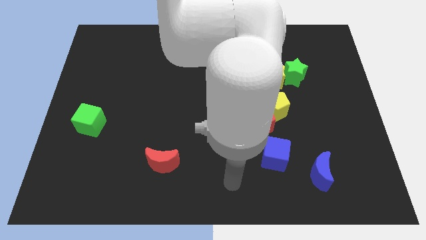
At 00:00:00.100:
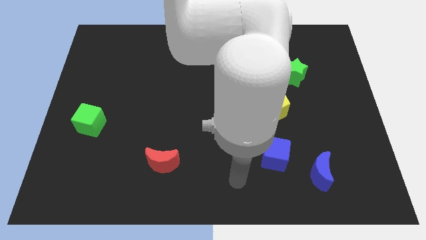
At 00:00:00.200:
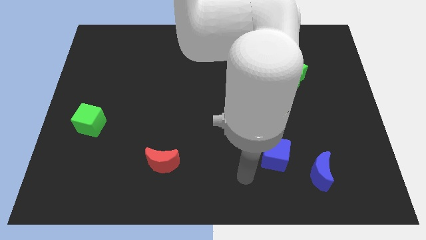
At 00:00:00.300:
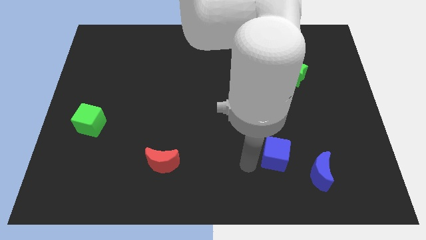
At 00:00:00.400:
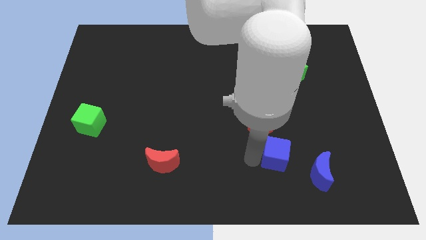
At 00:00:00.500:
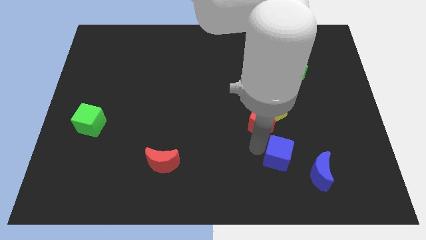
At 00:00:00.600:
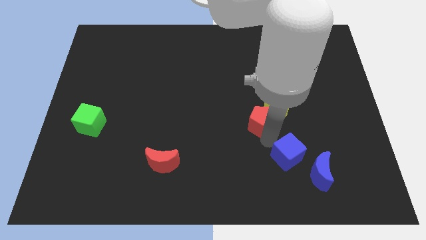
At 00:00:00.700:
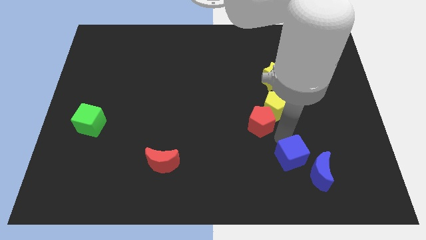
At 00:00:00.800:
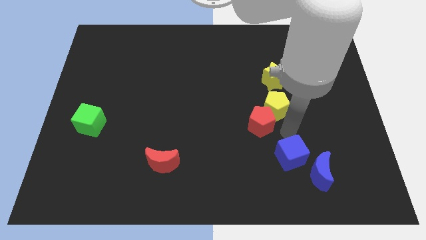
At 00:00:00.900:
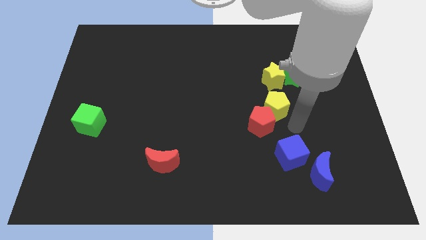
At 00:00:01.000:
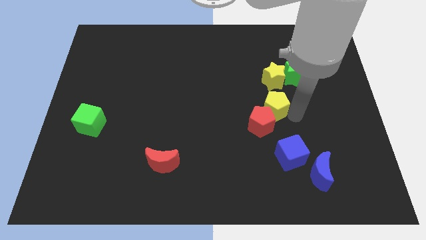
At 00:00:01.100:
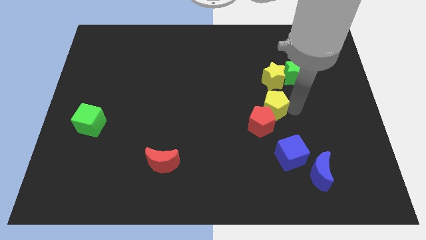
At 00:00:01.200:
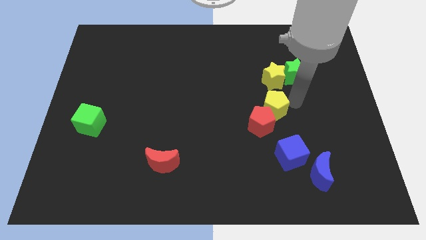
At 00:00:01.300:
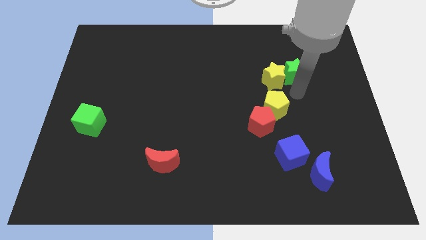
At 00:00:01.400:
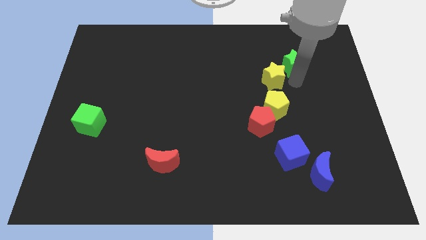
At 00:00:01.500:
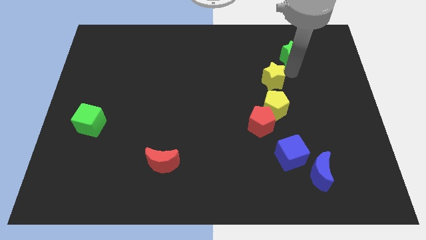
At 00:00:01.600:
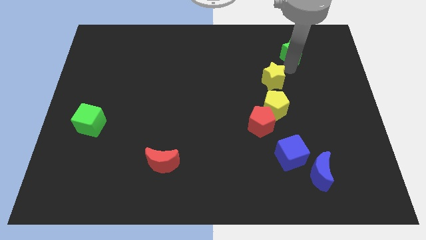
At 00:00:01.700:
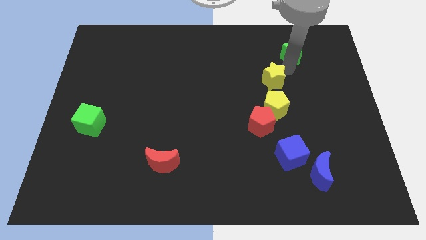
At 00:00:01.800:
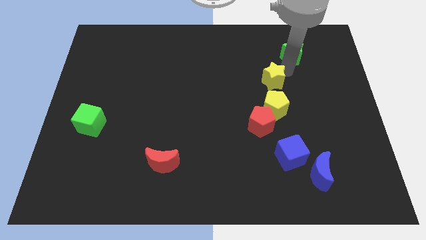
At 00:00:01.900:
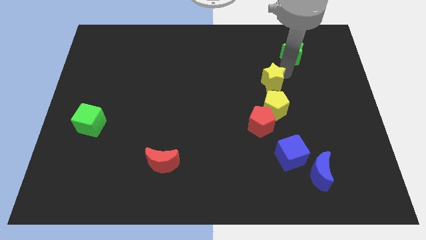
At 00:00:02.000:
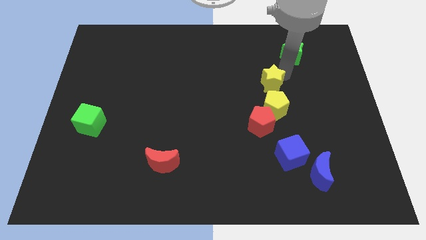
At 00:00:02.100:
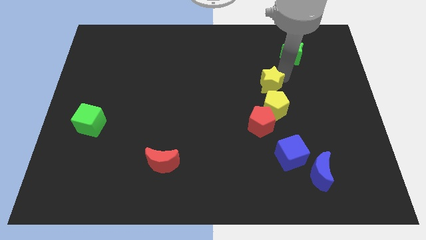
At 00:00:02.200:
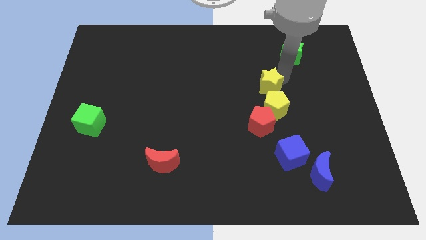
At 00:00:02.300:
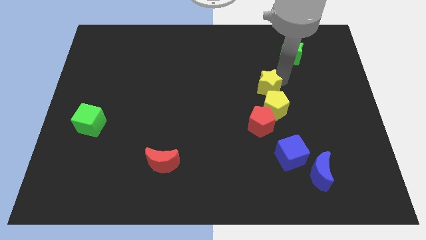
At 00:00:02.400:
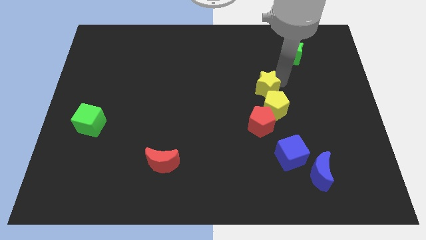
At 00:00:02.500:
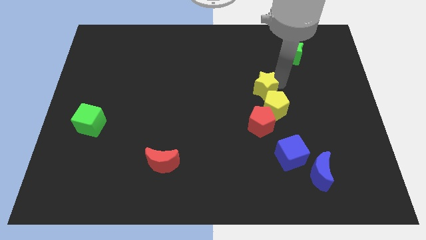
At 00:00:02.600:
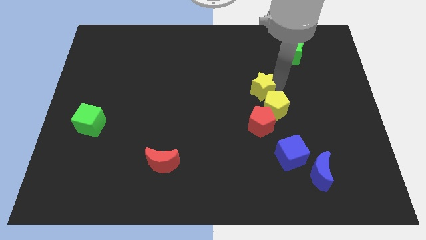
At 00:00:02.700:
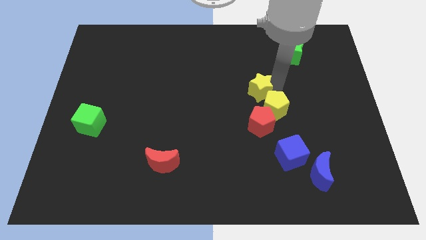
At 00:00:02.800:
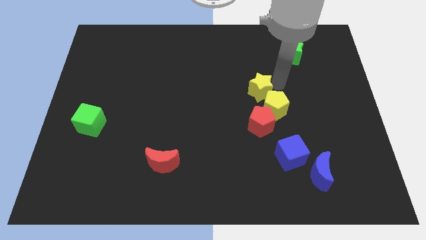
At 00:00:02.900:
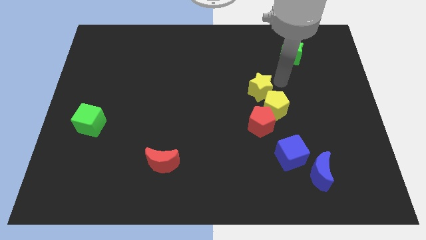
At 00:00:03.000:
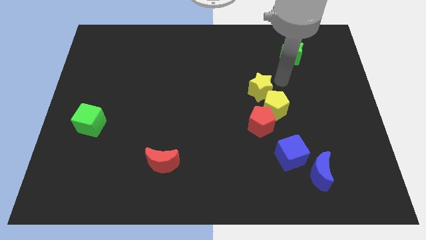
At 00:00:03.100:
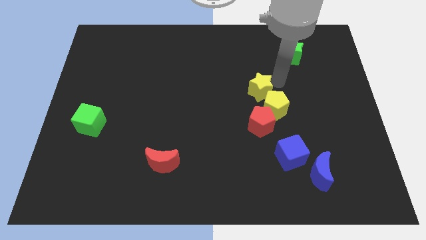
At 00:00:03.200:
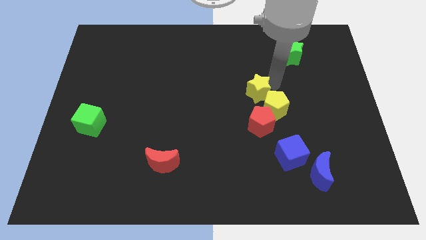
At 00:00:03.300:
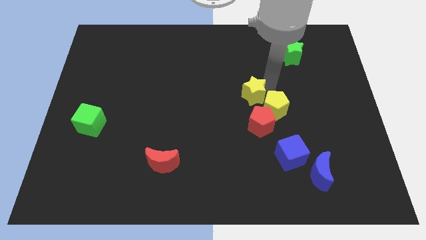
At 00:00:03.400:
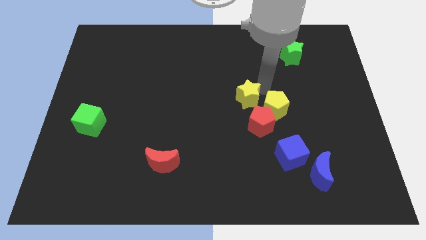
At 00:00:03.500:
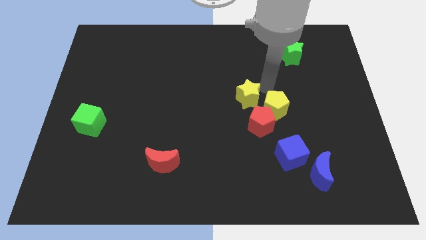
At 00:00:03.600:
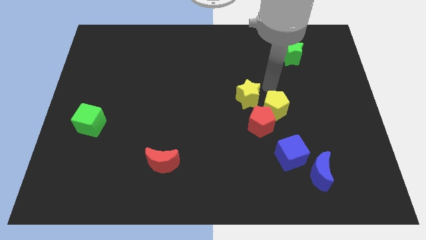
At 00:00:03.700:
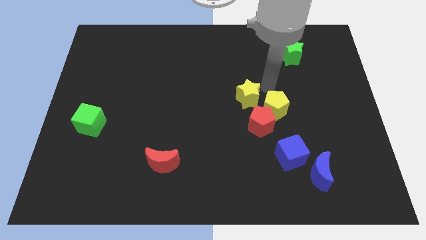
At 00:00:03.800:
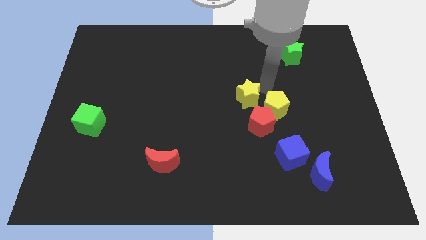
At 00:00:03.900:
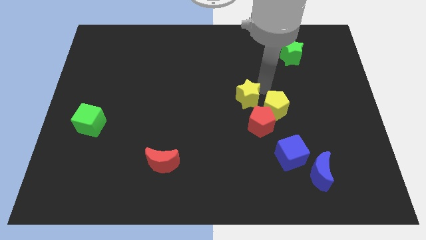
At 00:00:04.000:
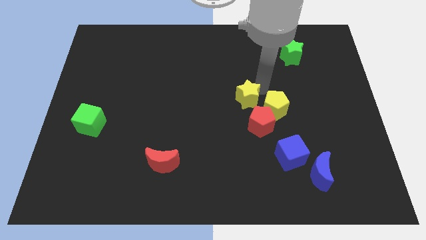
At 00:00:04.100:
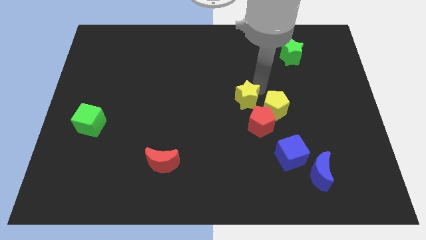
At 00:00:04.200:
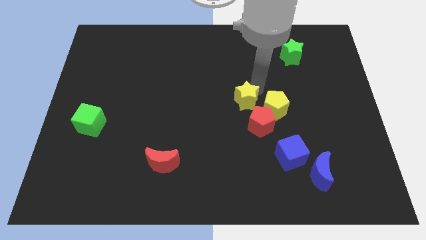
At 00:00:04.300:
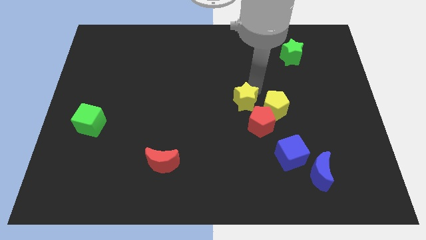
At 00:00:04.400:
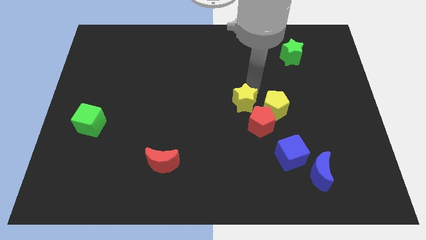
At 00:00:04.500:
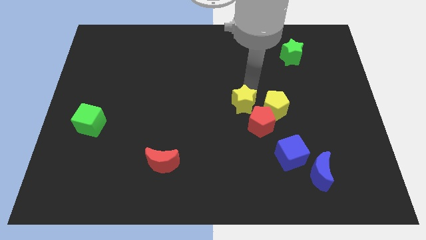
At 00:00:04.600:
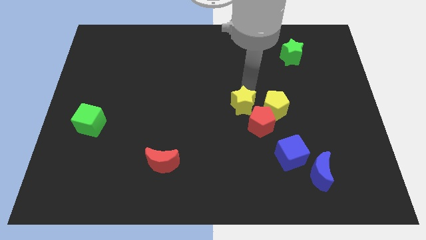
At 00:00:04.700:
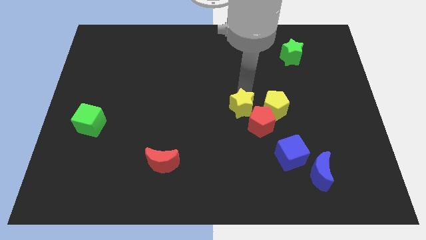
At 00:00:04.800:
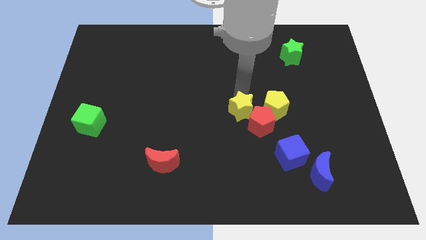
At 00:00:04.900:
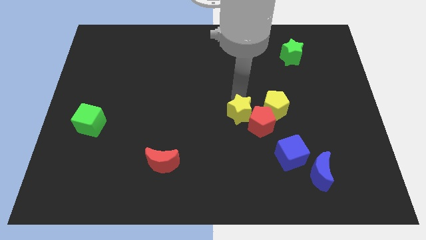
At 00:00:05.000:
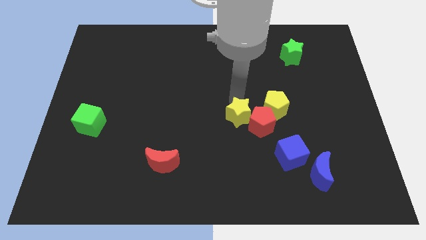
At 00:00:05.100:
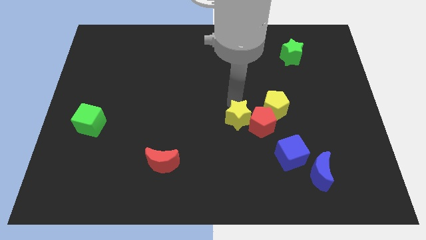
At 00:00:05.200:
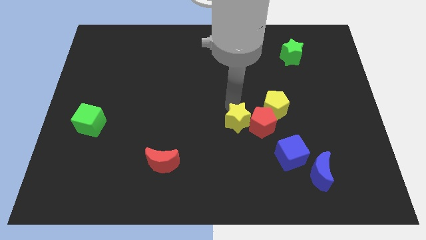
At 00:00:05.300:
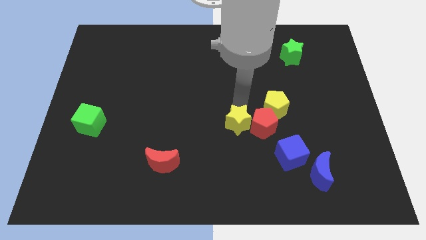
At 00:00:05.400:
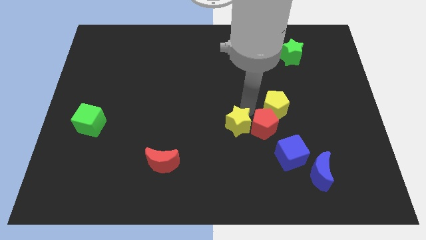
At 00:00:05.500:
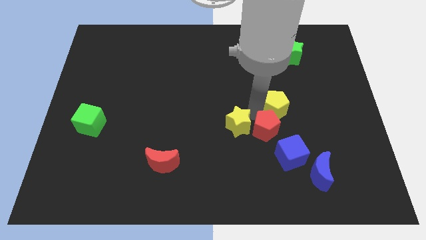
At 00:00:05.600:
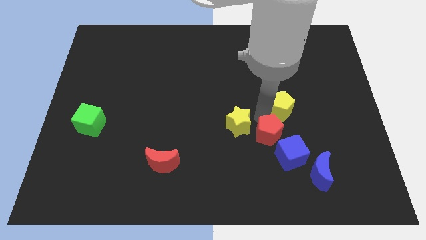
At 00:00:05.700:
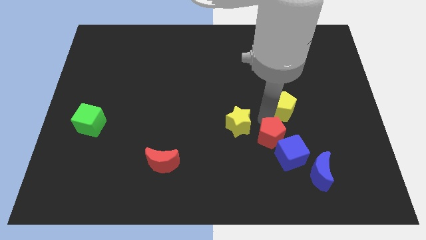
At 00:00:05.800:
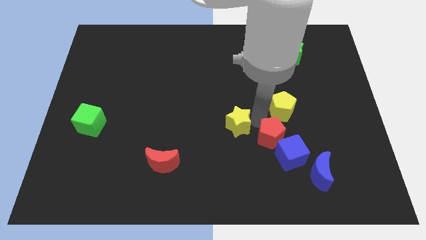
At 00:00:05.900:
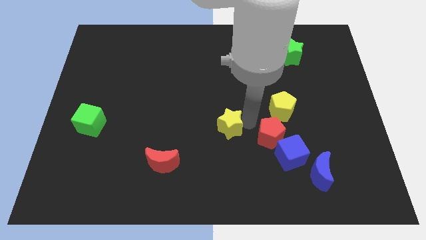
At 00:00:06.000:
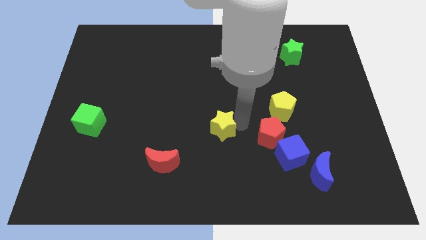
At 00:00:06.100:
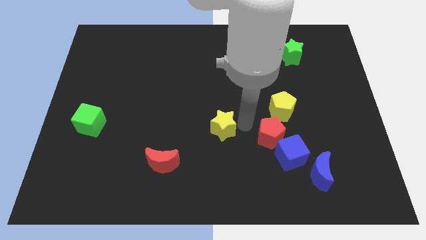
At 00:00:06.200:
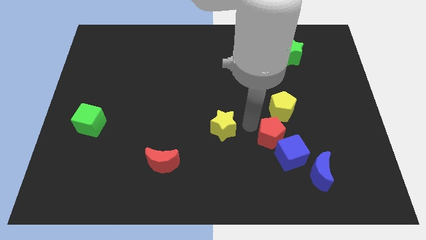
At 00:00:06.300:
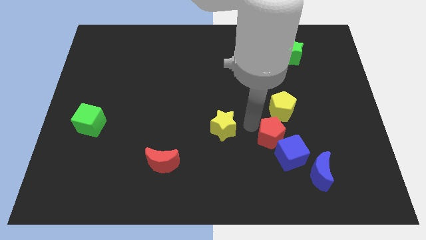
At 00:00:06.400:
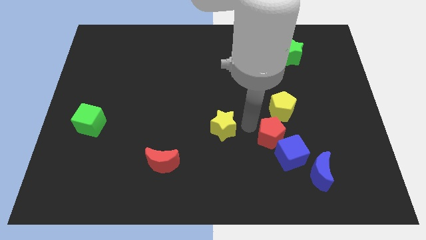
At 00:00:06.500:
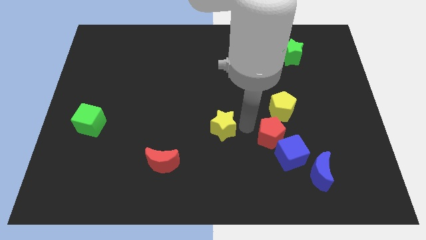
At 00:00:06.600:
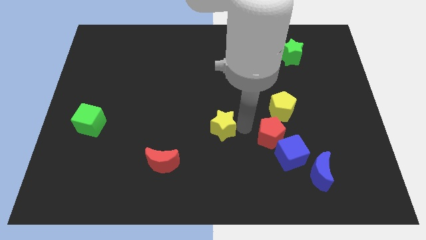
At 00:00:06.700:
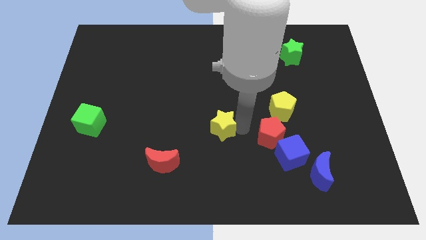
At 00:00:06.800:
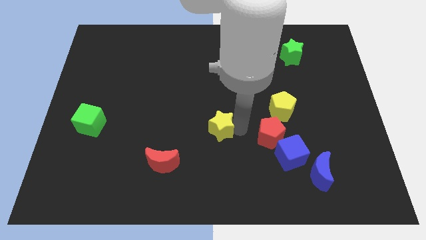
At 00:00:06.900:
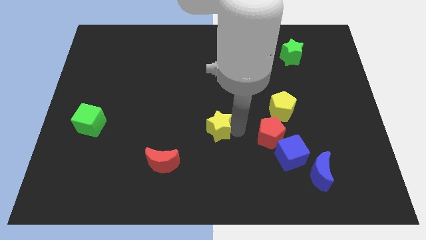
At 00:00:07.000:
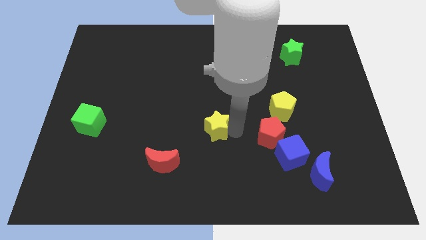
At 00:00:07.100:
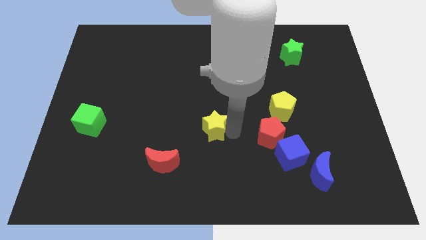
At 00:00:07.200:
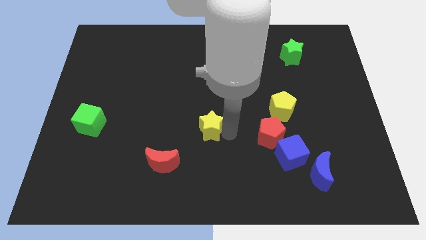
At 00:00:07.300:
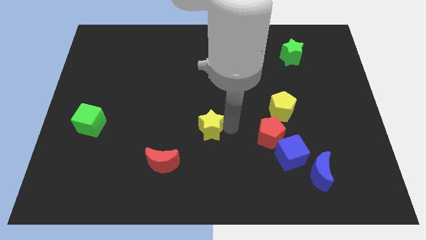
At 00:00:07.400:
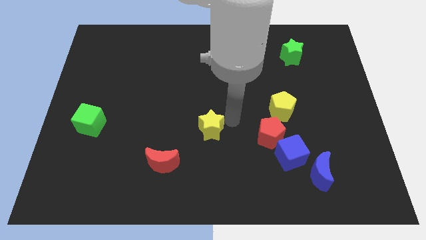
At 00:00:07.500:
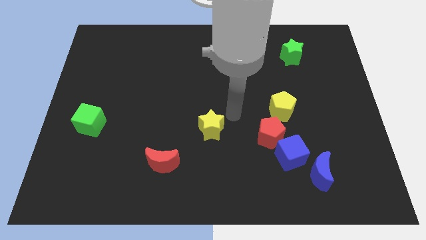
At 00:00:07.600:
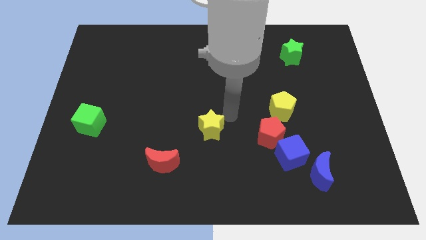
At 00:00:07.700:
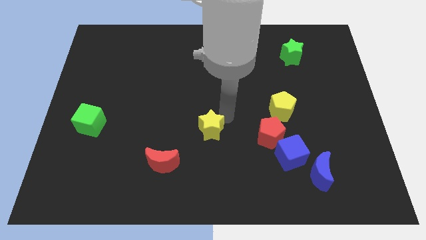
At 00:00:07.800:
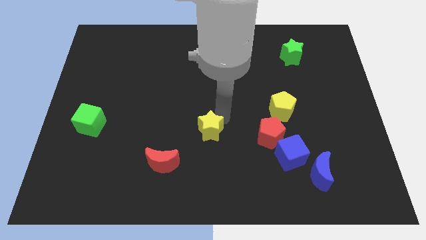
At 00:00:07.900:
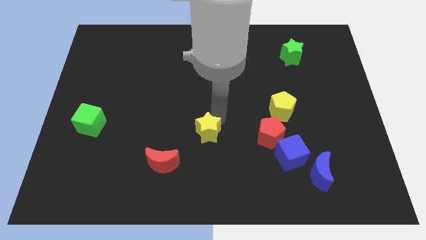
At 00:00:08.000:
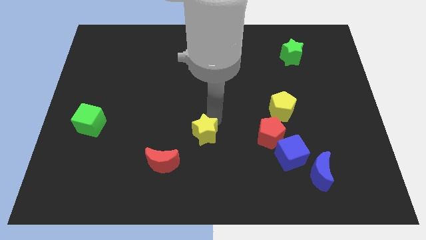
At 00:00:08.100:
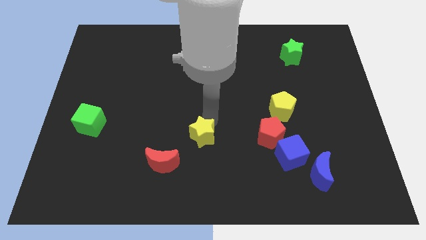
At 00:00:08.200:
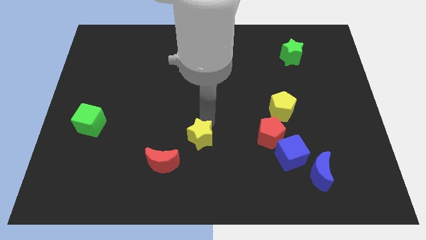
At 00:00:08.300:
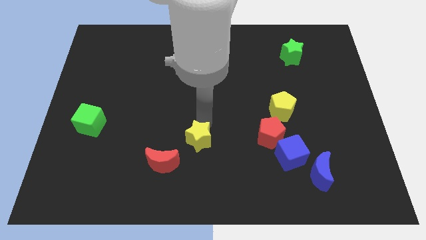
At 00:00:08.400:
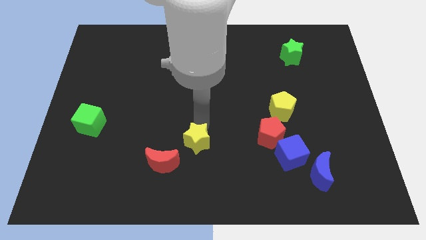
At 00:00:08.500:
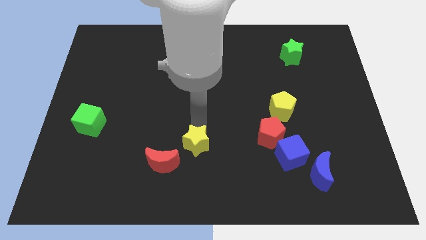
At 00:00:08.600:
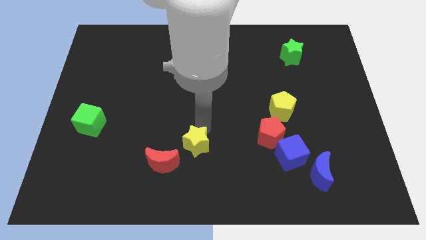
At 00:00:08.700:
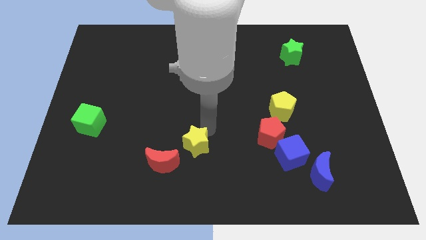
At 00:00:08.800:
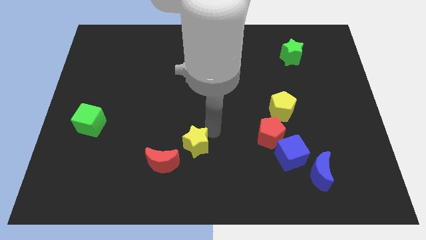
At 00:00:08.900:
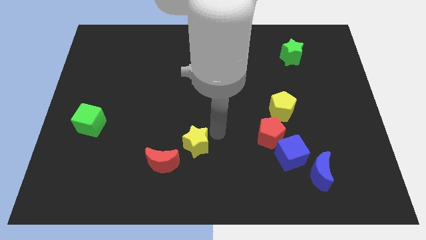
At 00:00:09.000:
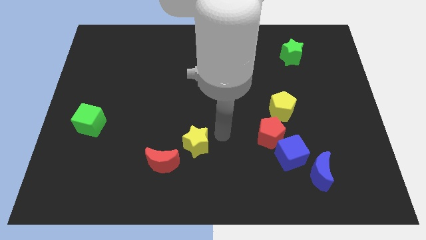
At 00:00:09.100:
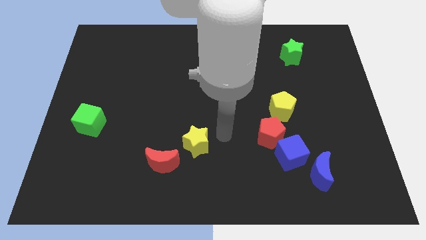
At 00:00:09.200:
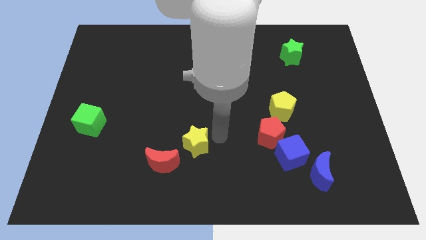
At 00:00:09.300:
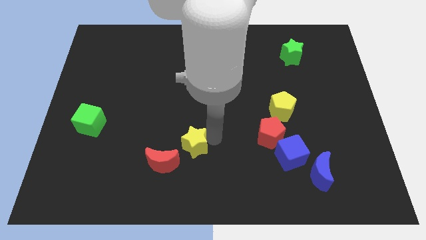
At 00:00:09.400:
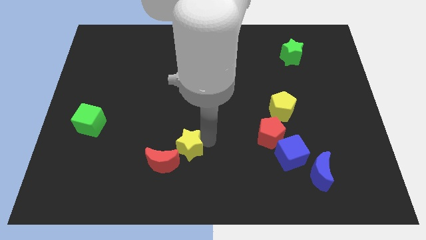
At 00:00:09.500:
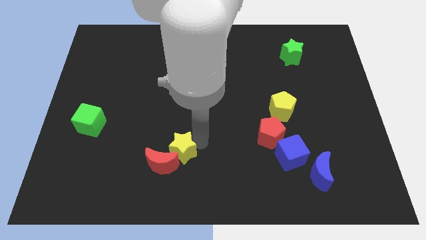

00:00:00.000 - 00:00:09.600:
slide the yellow star to the red moon
